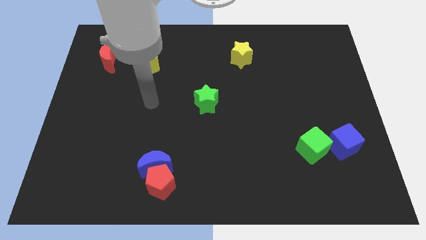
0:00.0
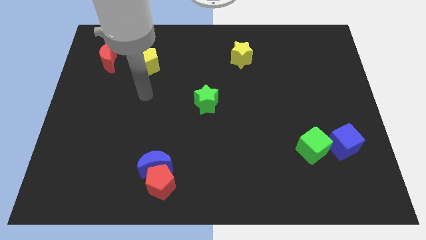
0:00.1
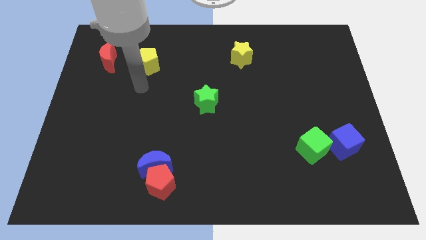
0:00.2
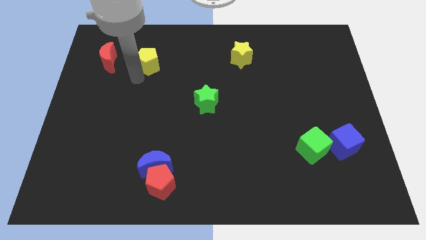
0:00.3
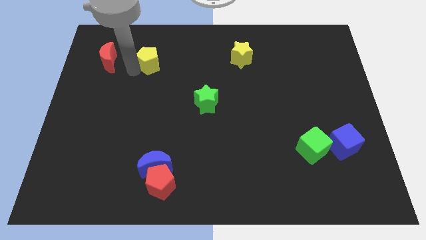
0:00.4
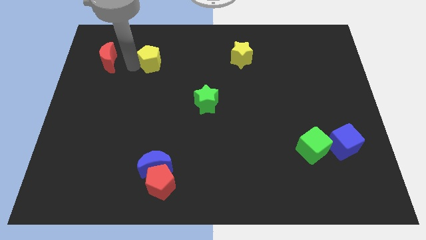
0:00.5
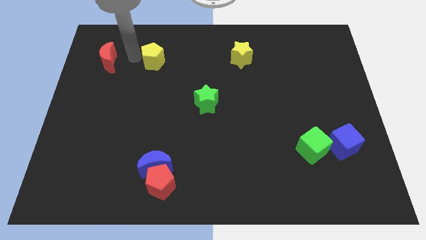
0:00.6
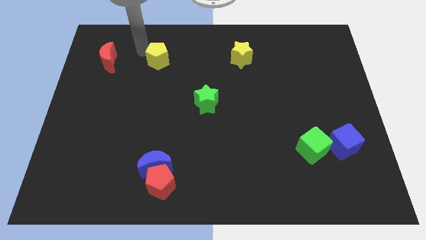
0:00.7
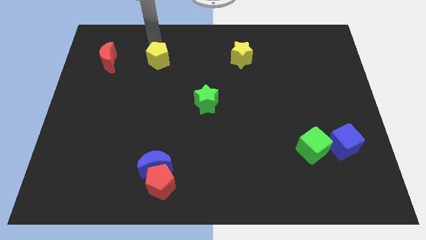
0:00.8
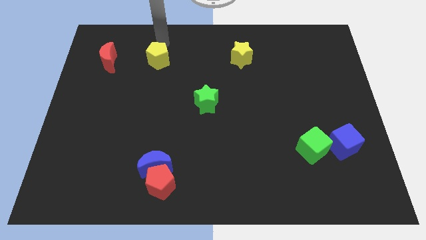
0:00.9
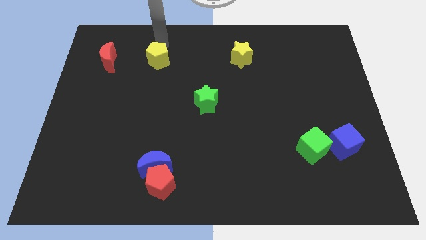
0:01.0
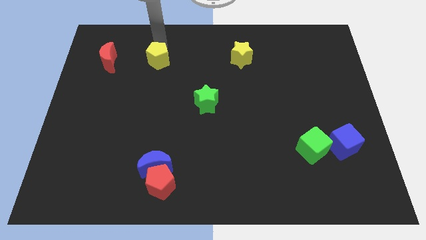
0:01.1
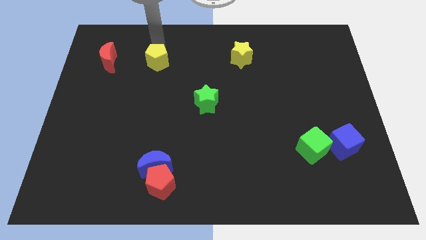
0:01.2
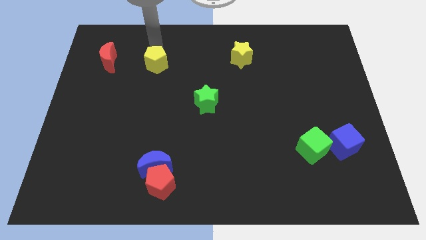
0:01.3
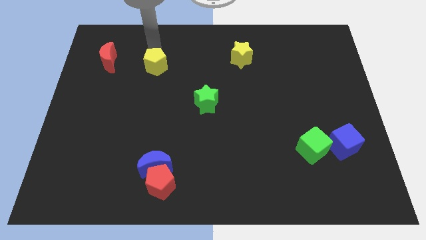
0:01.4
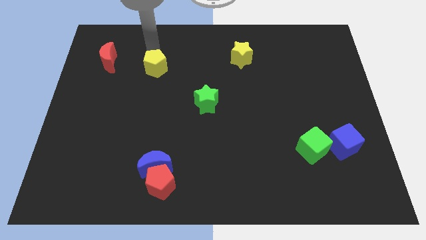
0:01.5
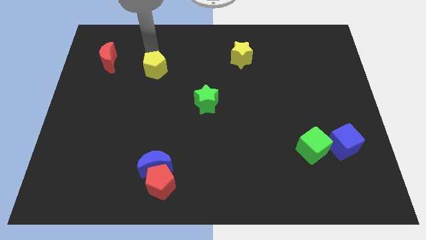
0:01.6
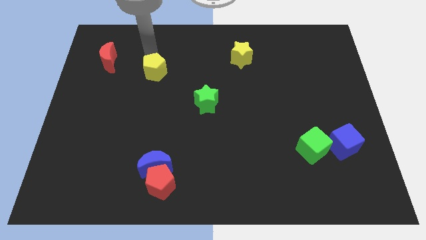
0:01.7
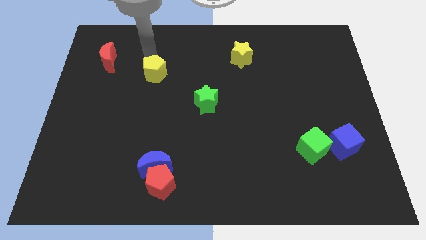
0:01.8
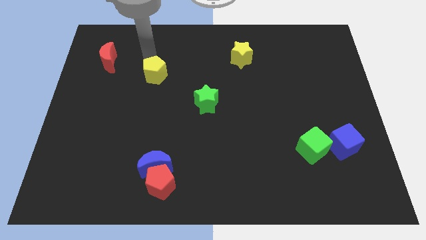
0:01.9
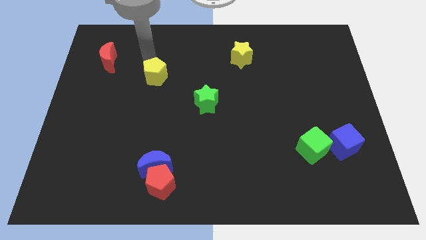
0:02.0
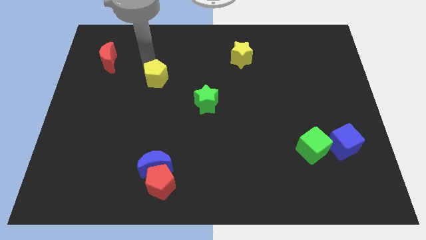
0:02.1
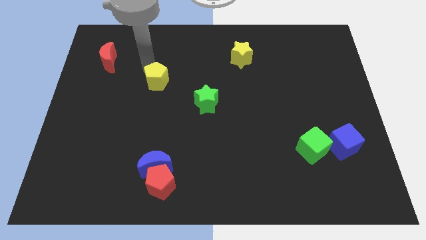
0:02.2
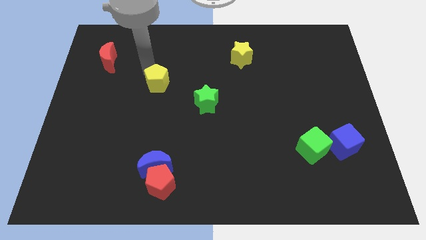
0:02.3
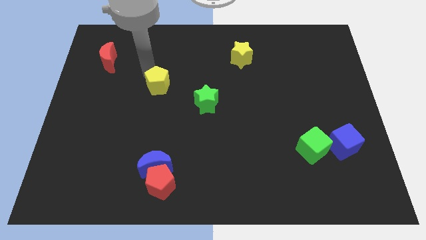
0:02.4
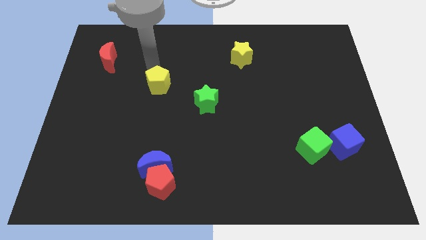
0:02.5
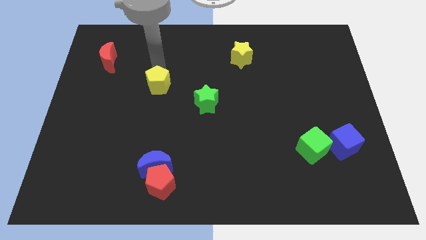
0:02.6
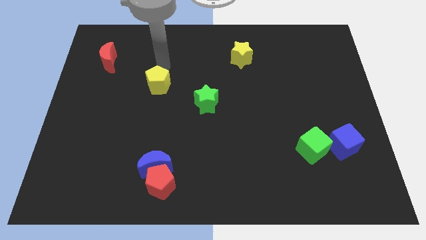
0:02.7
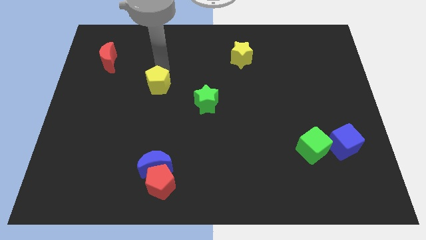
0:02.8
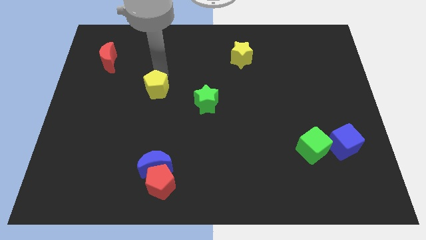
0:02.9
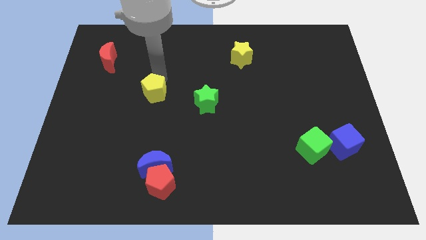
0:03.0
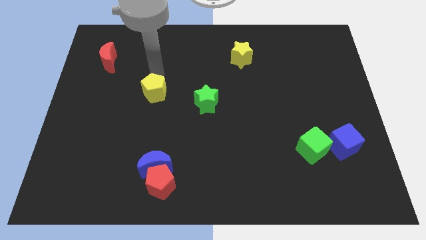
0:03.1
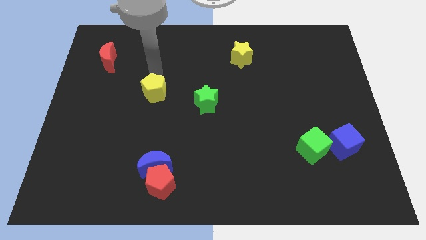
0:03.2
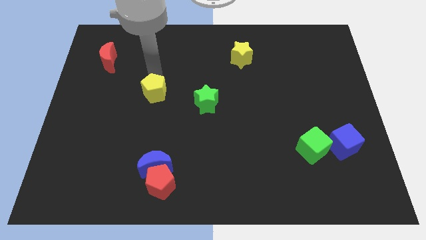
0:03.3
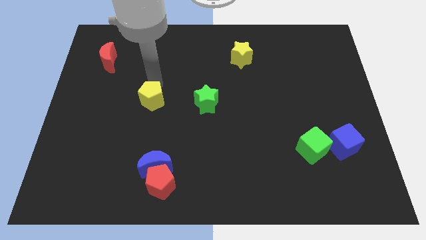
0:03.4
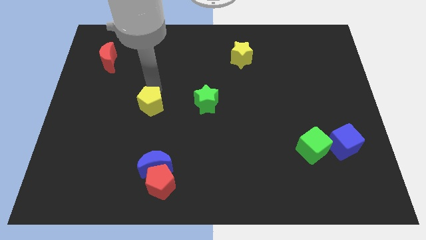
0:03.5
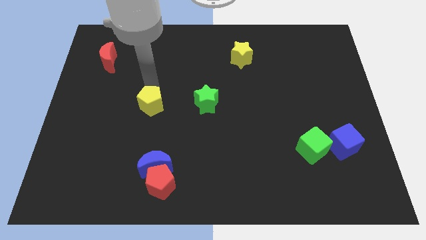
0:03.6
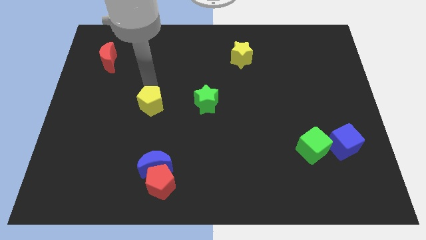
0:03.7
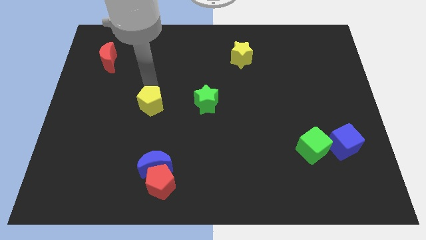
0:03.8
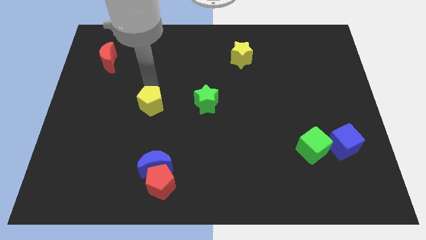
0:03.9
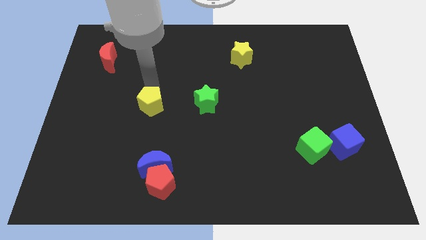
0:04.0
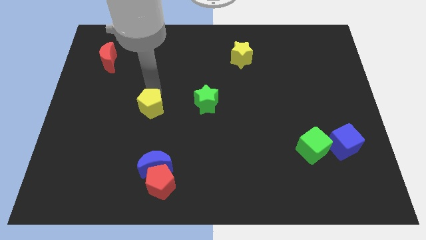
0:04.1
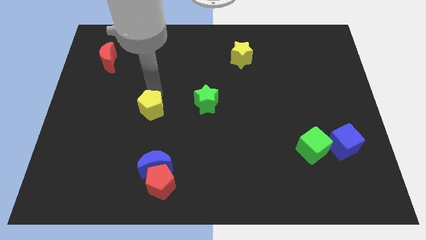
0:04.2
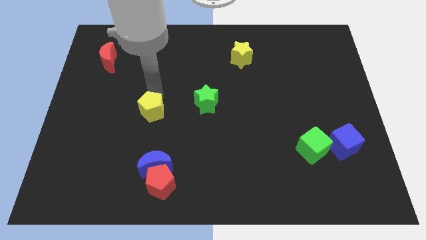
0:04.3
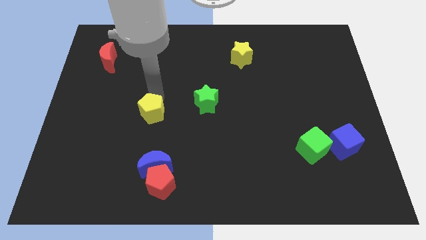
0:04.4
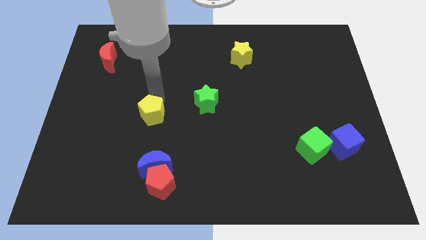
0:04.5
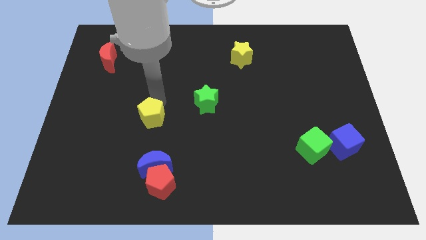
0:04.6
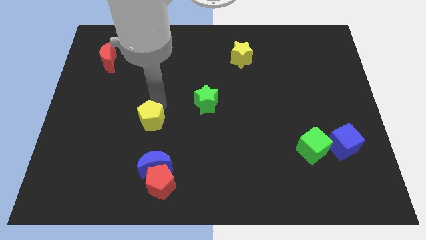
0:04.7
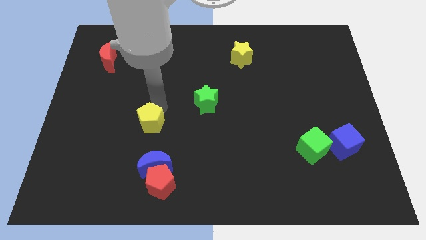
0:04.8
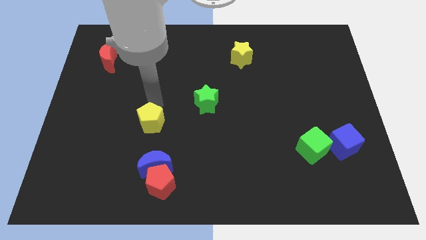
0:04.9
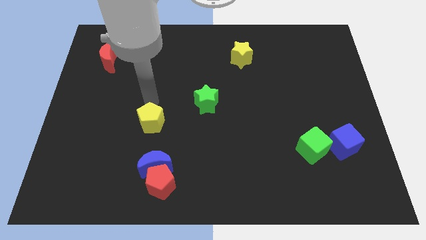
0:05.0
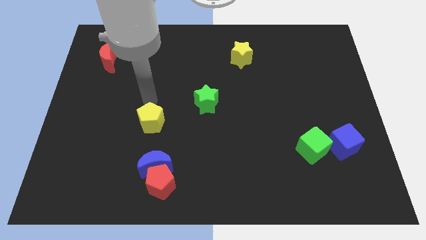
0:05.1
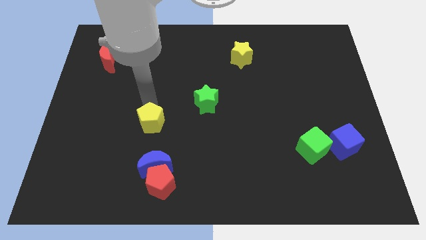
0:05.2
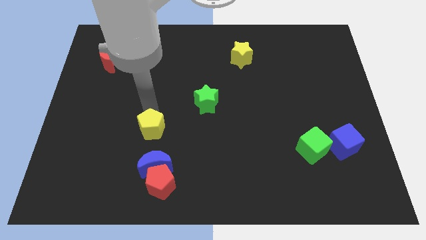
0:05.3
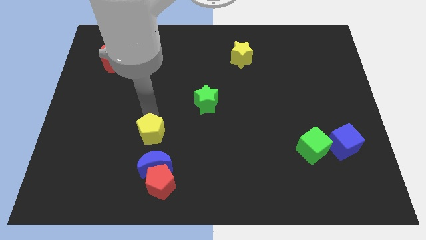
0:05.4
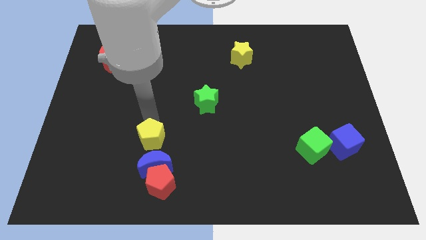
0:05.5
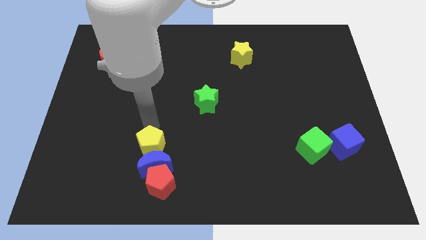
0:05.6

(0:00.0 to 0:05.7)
slide the yellow pentagon to the blue moon

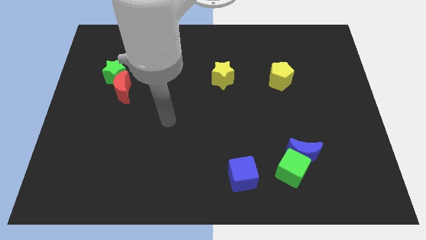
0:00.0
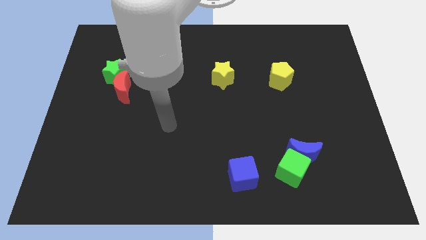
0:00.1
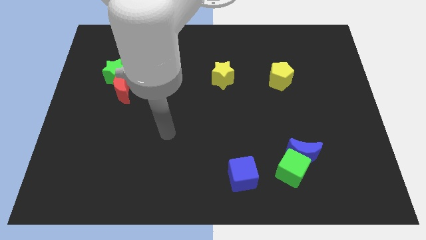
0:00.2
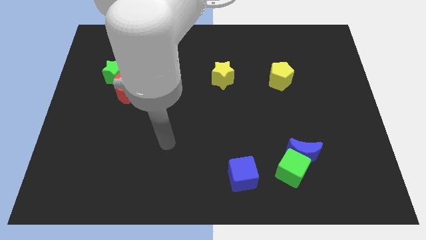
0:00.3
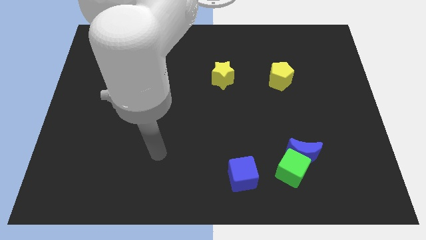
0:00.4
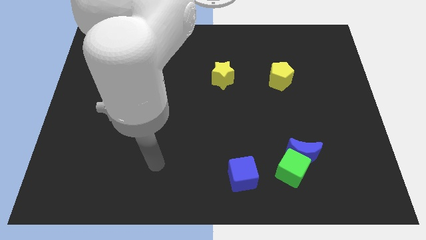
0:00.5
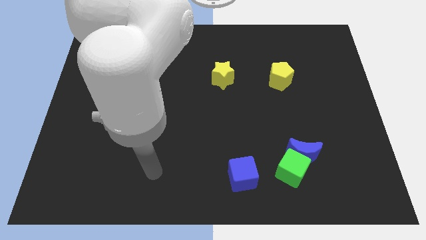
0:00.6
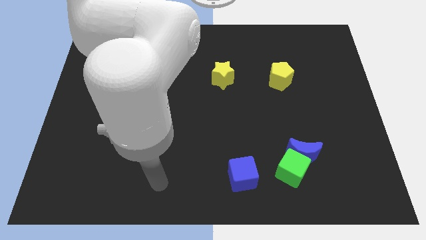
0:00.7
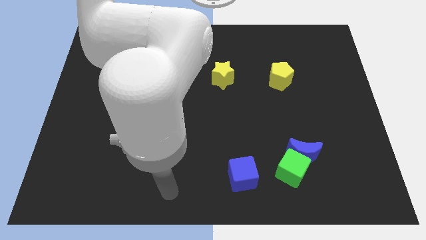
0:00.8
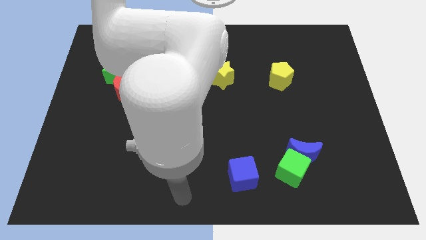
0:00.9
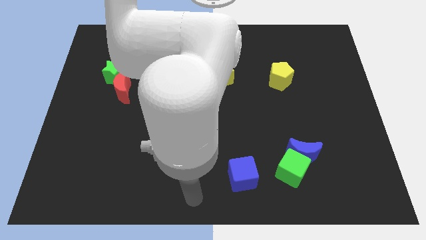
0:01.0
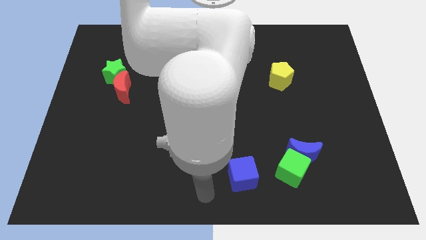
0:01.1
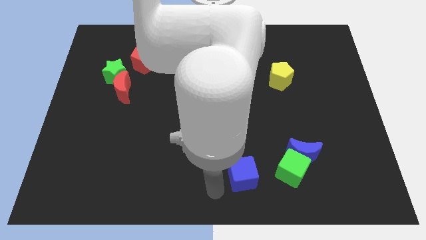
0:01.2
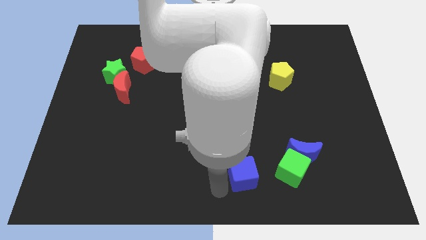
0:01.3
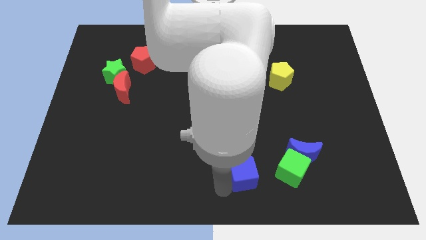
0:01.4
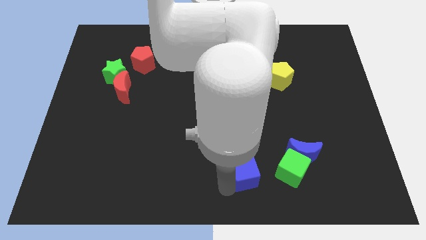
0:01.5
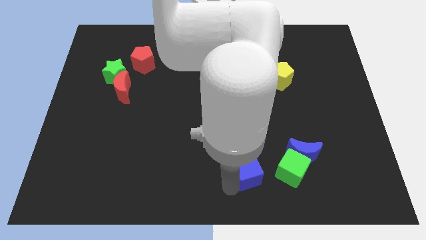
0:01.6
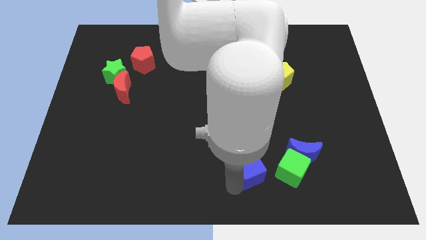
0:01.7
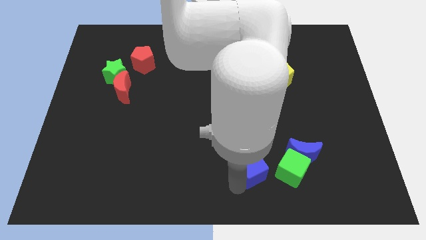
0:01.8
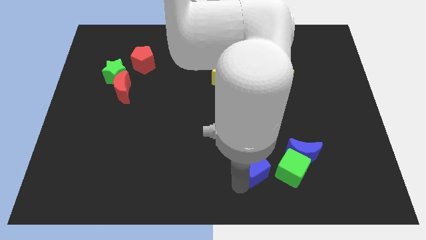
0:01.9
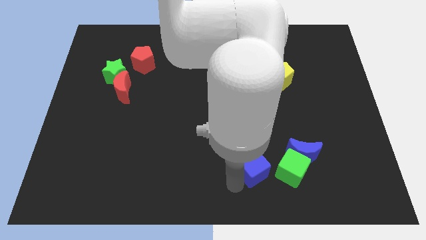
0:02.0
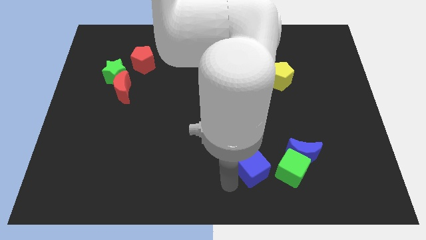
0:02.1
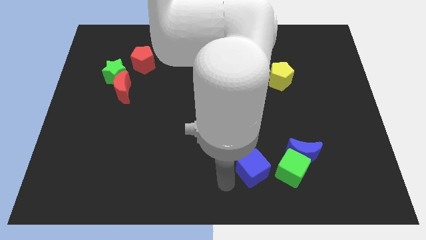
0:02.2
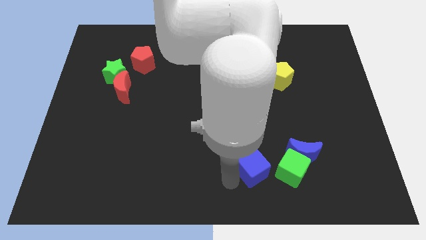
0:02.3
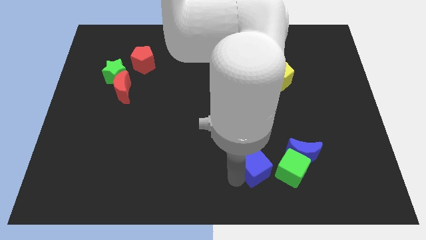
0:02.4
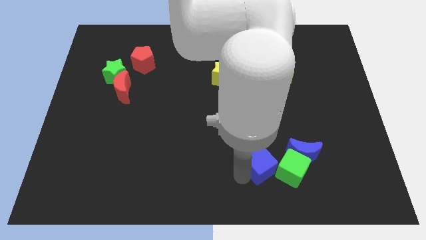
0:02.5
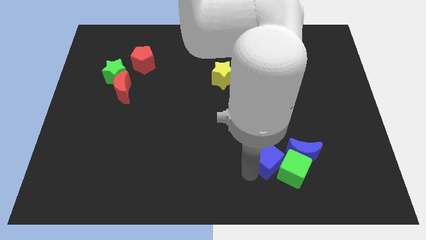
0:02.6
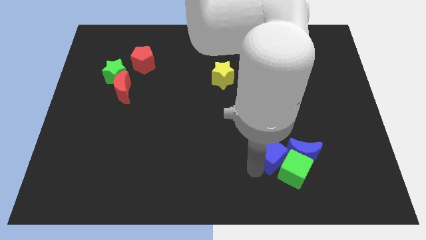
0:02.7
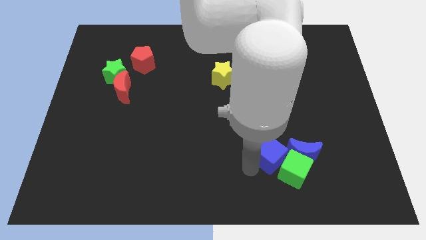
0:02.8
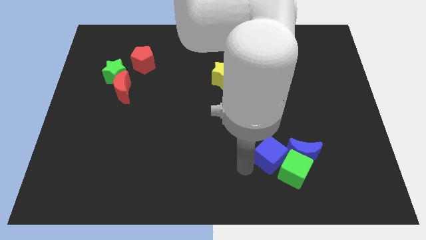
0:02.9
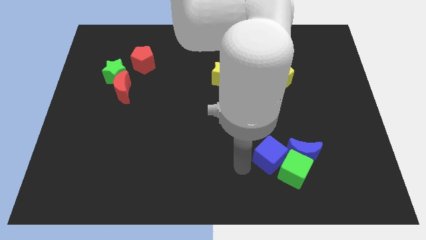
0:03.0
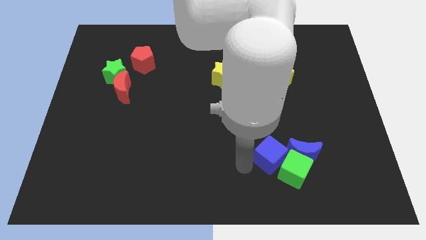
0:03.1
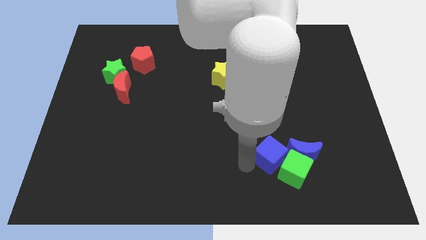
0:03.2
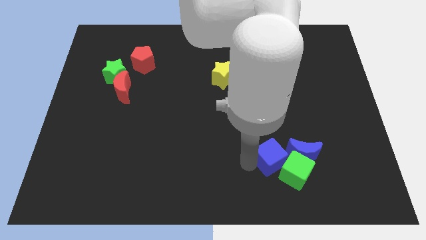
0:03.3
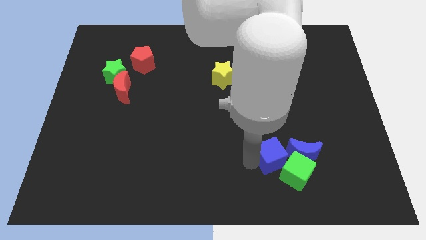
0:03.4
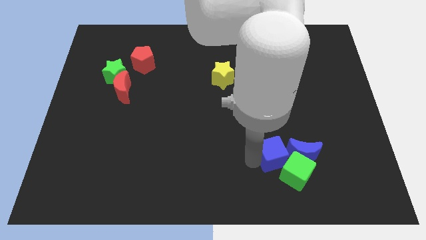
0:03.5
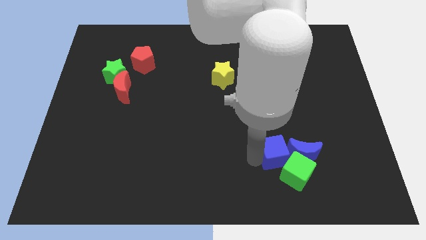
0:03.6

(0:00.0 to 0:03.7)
move the blue cube next to the blue moon
